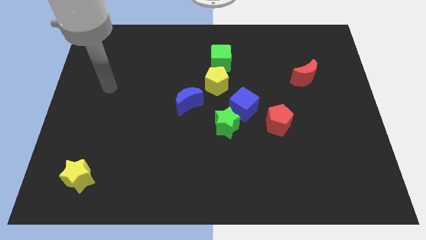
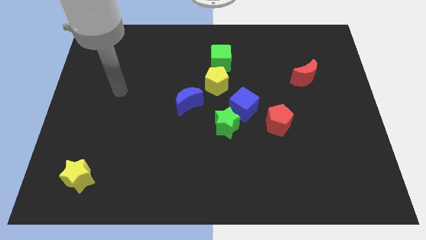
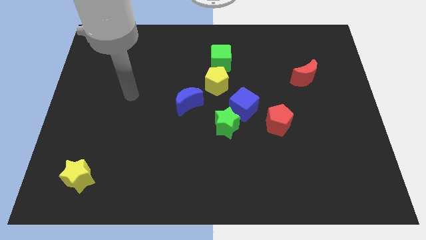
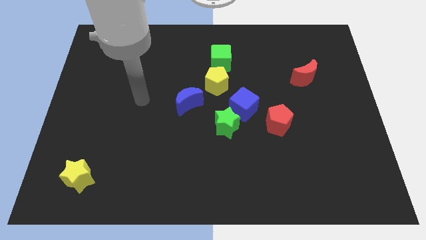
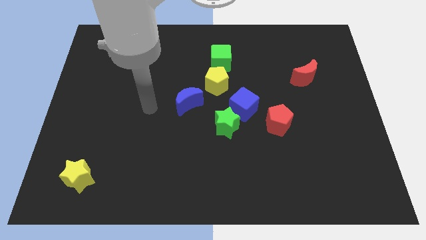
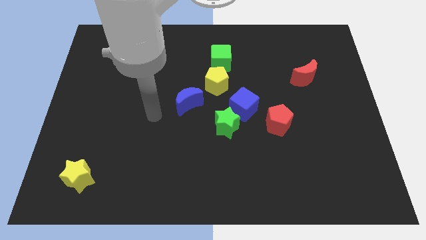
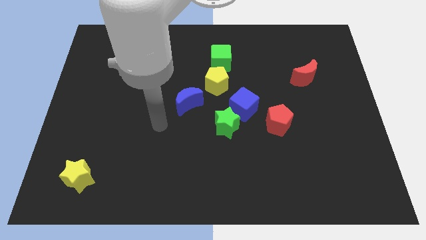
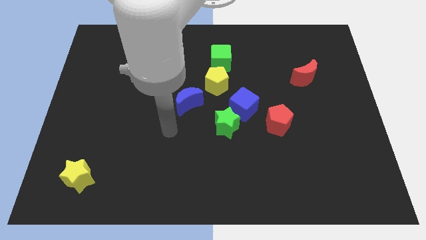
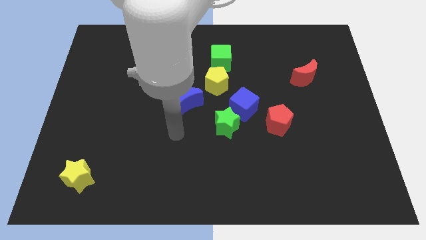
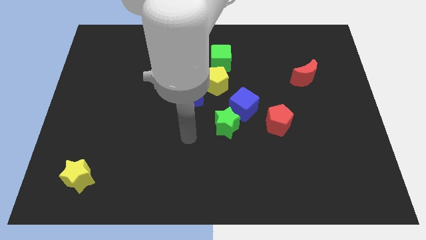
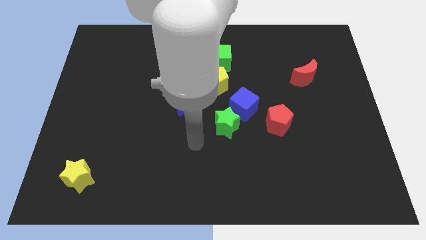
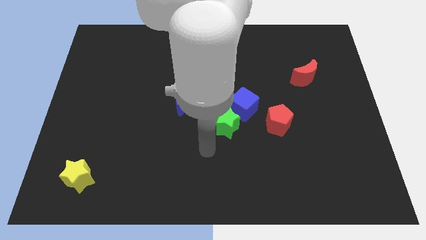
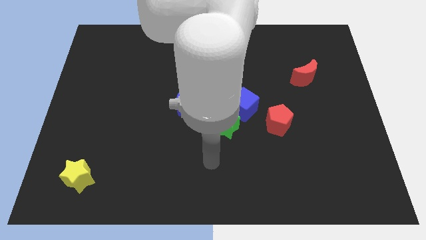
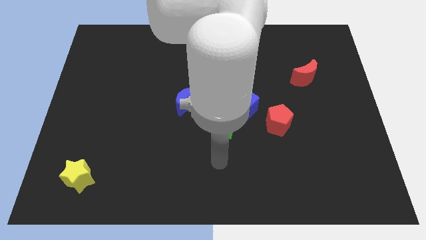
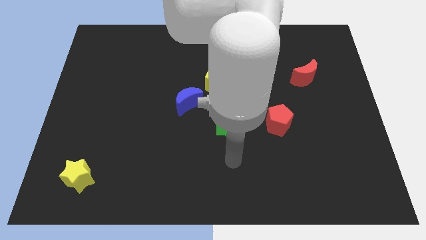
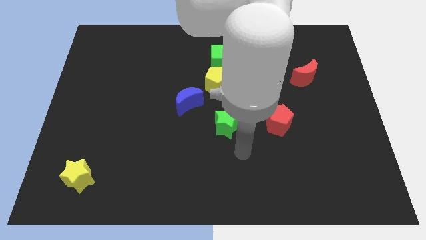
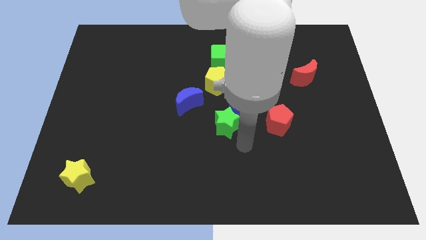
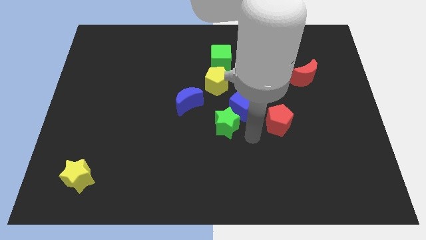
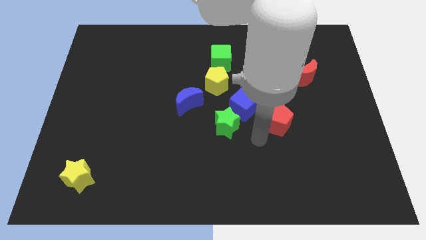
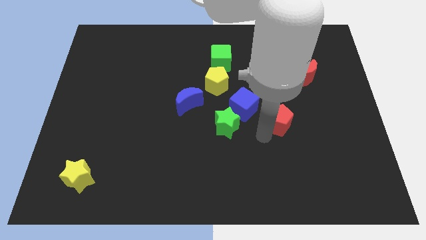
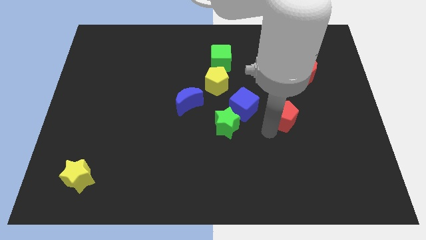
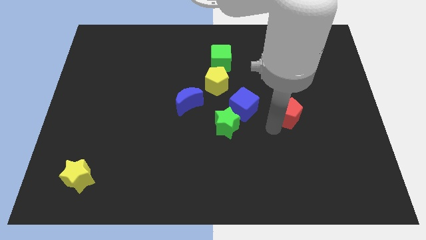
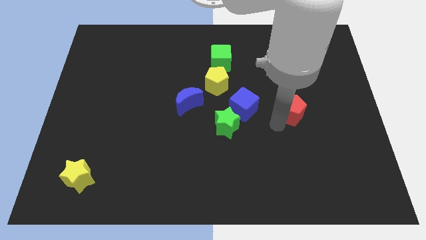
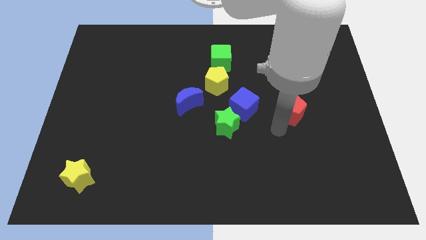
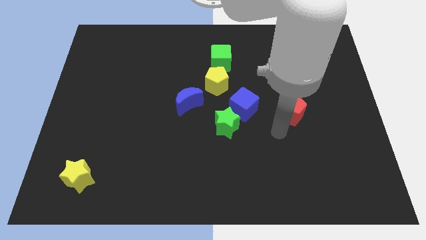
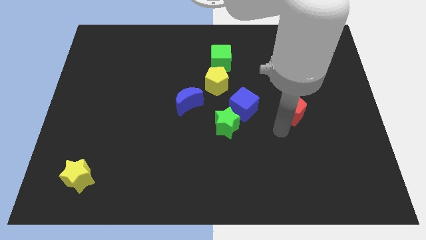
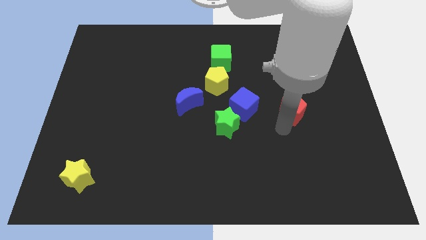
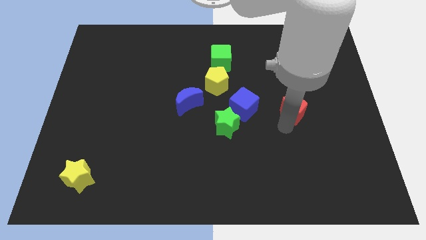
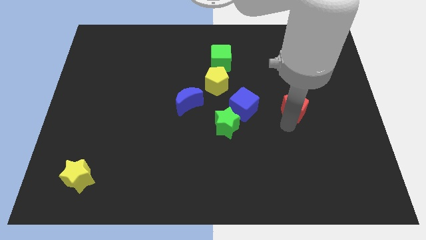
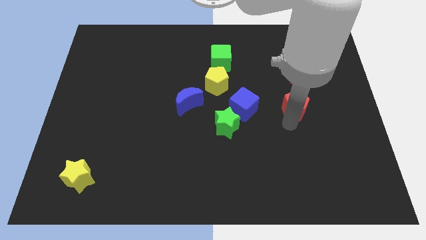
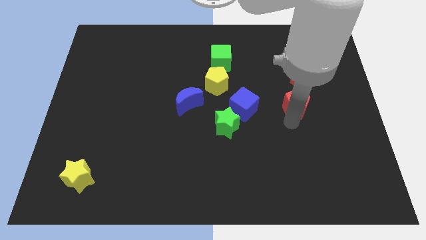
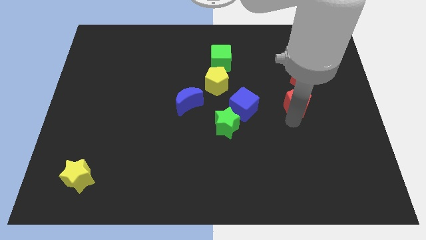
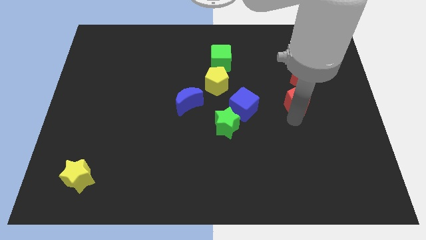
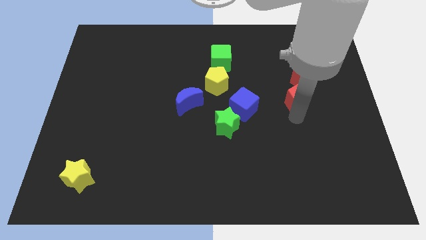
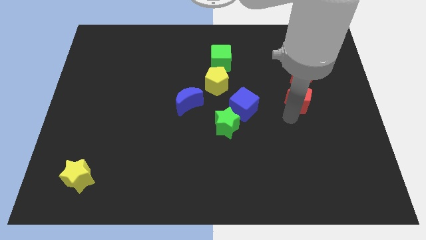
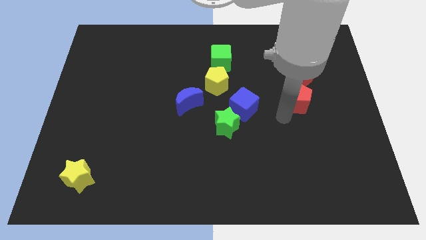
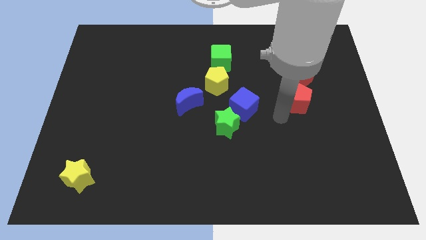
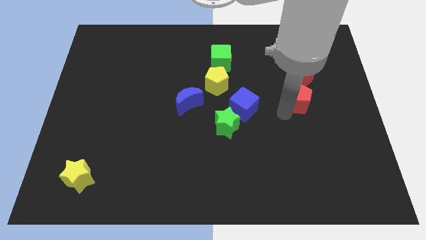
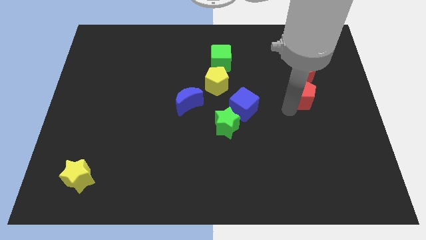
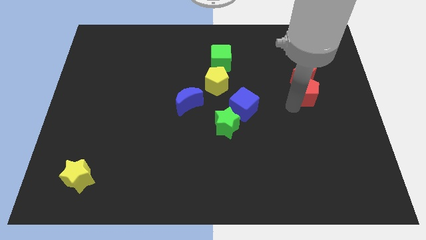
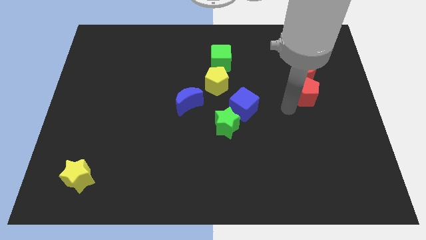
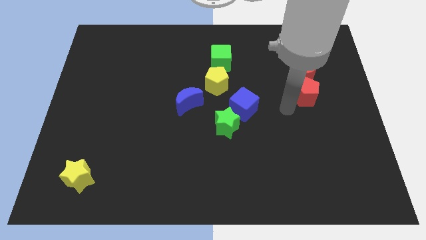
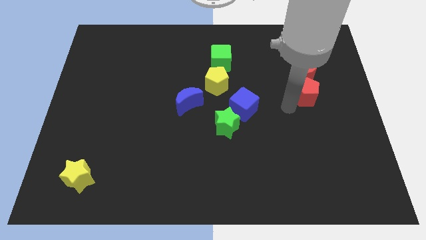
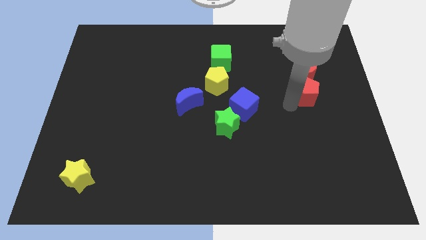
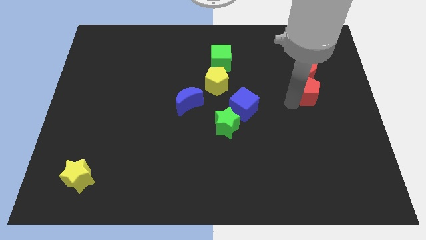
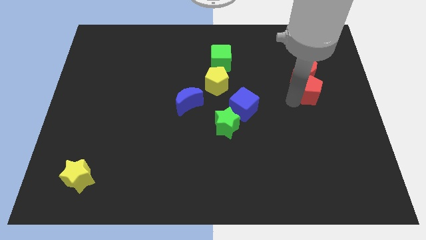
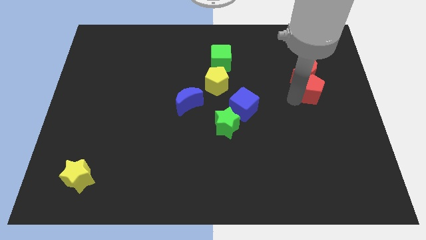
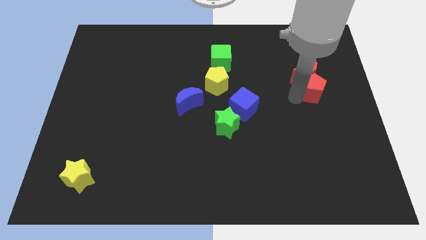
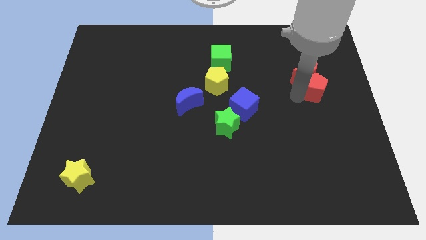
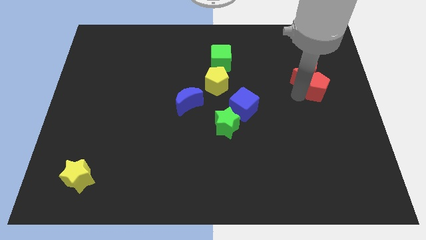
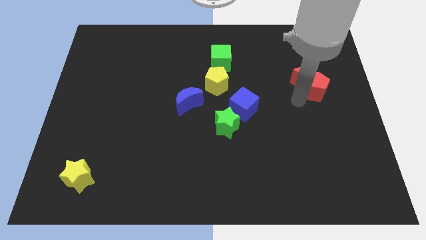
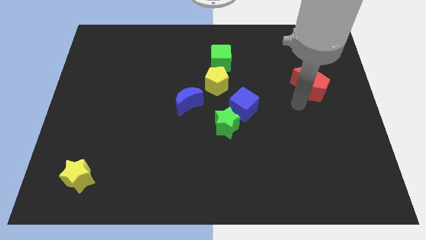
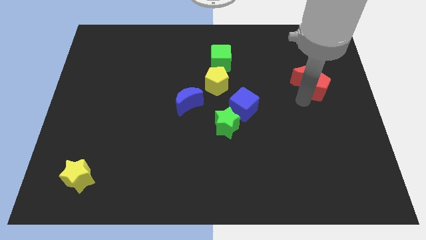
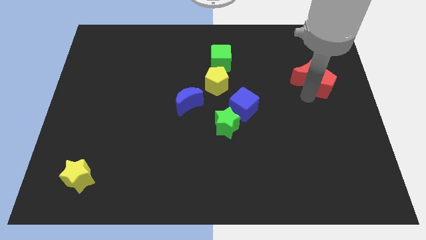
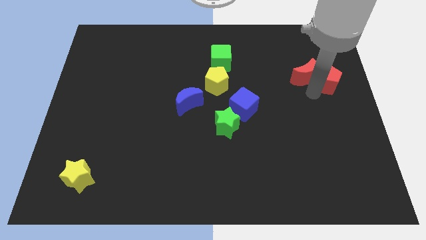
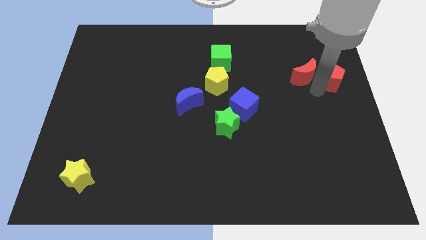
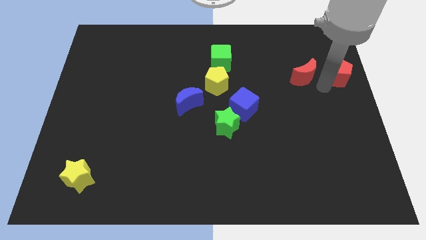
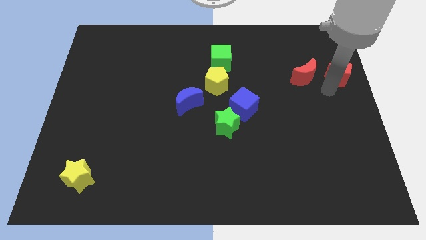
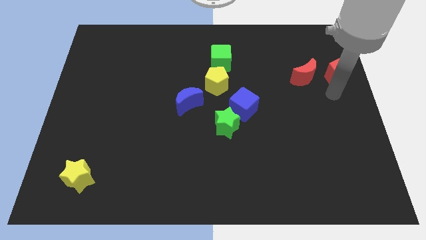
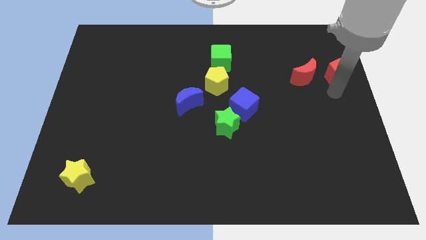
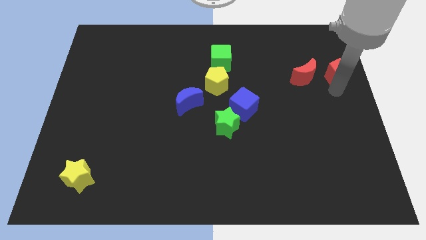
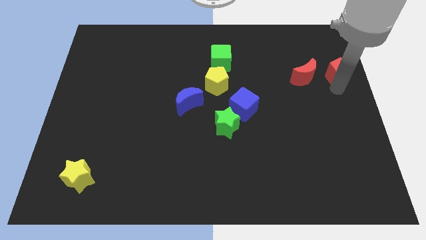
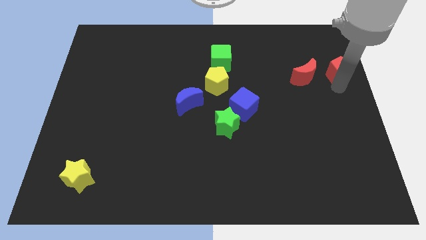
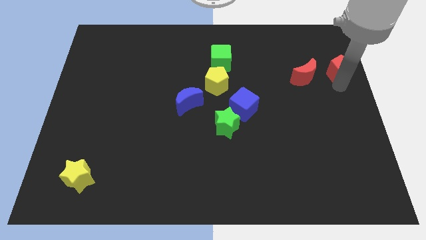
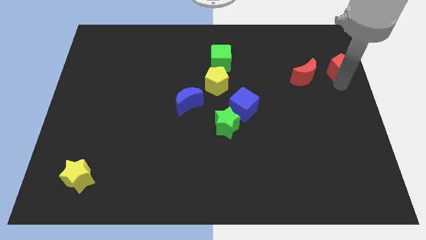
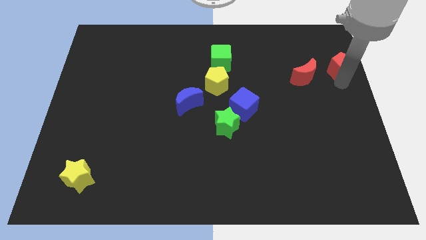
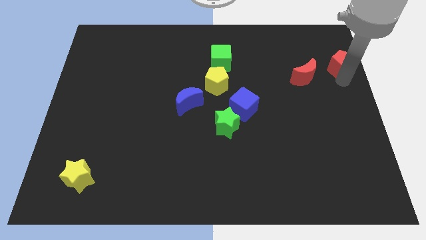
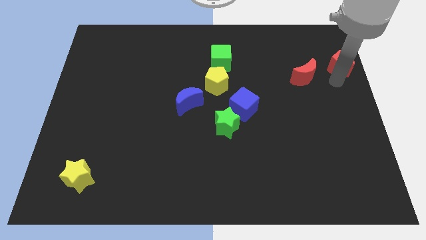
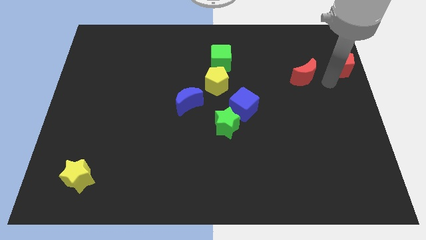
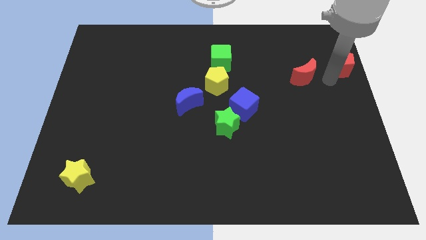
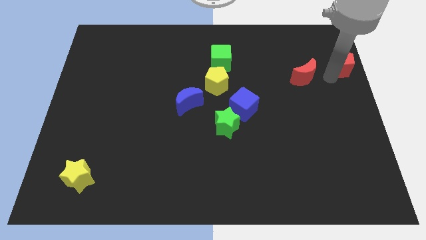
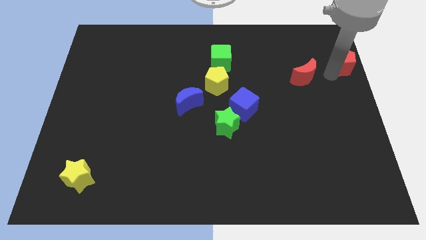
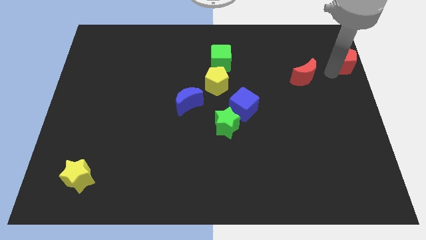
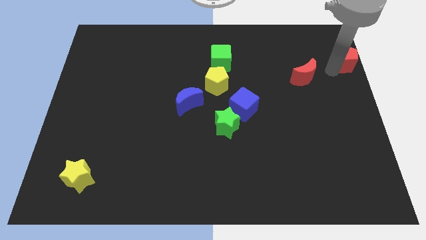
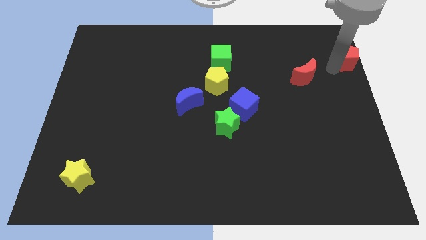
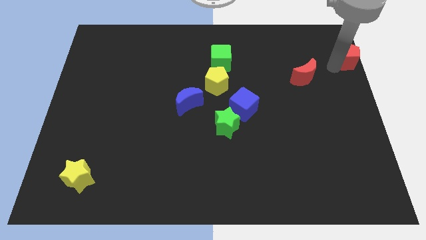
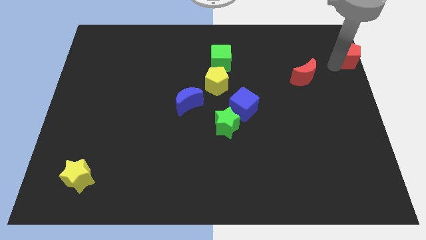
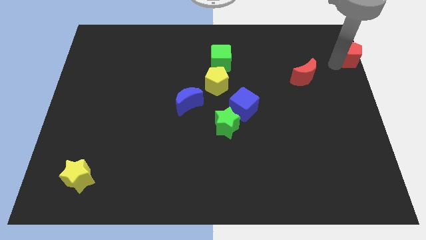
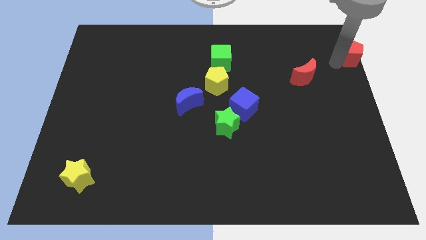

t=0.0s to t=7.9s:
put the red pentagon to the top right of the board
